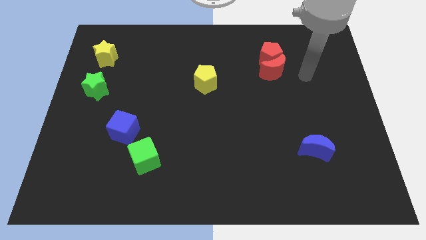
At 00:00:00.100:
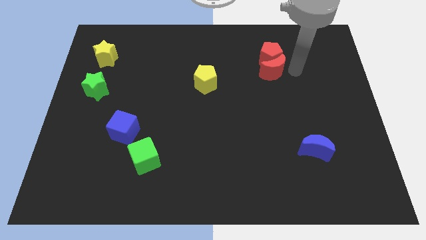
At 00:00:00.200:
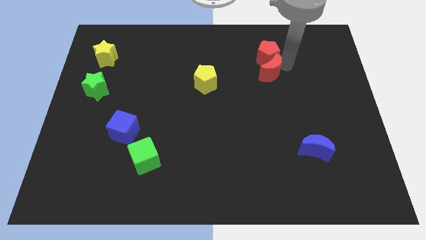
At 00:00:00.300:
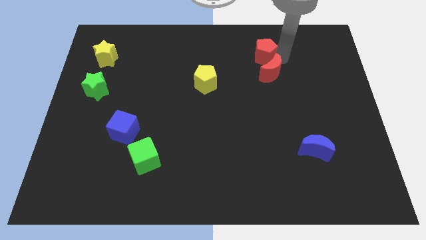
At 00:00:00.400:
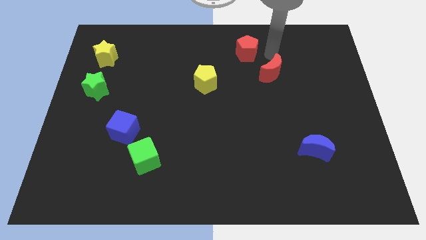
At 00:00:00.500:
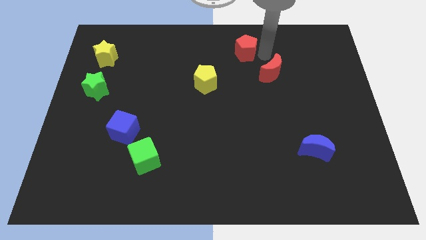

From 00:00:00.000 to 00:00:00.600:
move the red moon away from the red pentagon

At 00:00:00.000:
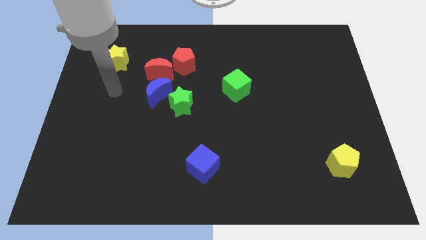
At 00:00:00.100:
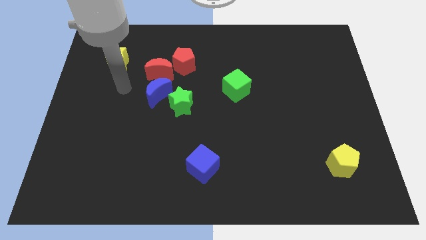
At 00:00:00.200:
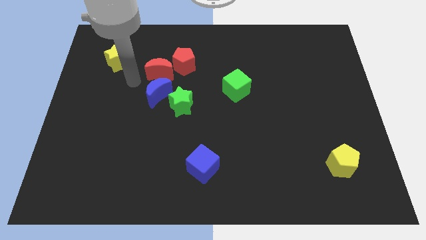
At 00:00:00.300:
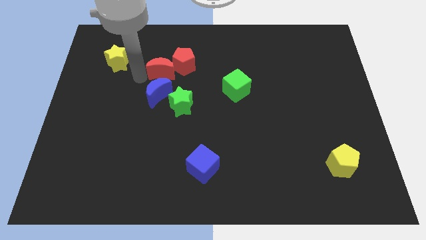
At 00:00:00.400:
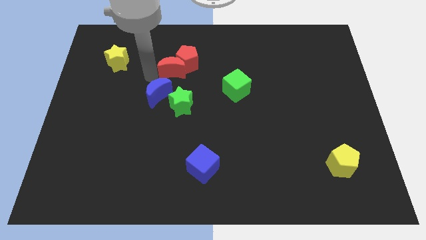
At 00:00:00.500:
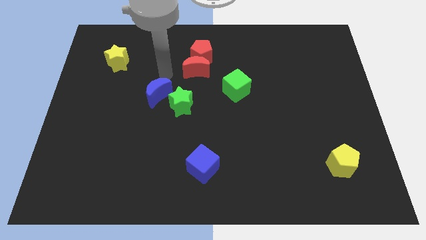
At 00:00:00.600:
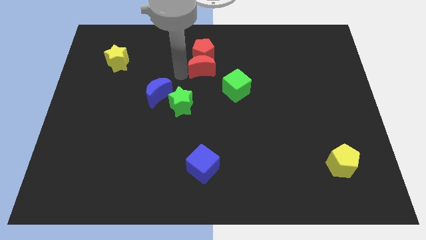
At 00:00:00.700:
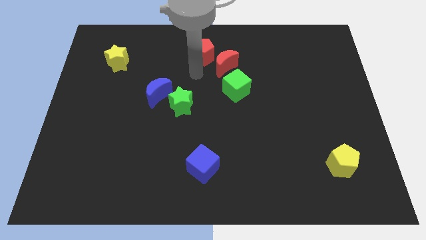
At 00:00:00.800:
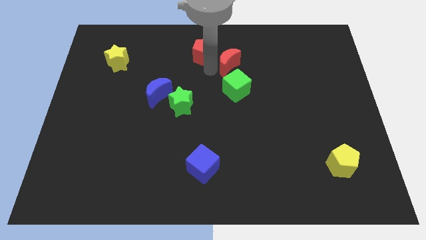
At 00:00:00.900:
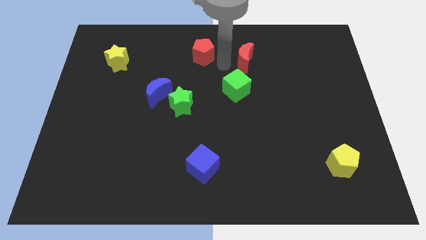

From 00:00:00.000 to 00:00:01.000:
separate the red pentagon from the red moon

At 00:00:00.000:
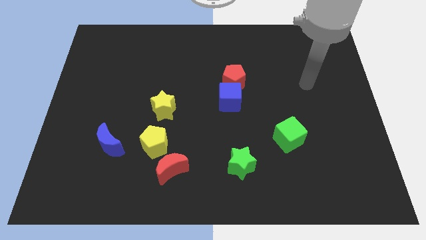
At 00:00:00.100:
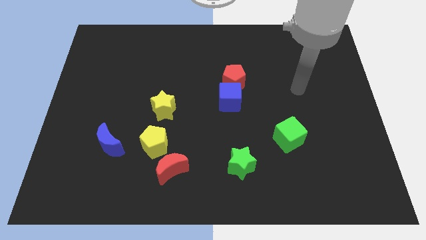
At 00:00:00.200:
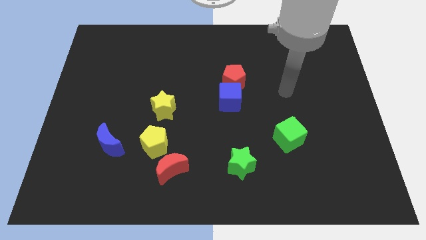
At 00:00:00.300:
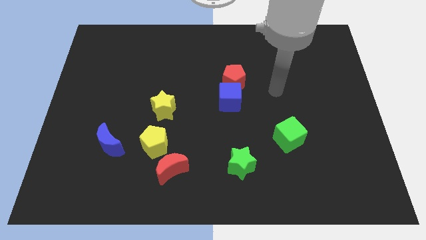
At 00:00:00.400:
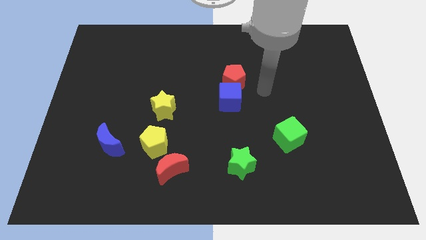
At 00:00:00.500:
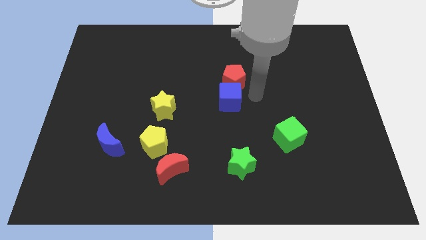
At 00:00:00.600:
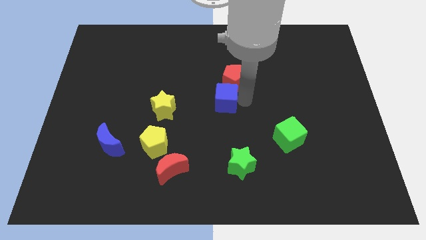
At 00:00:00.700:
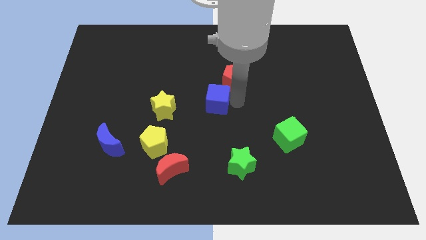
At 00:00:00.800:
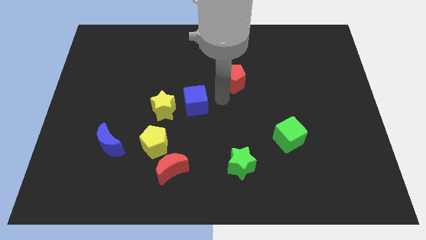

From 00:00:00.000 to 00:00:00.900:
pull the red pentagon apart from the blue cube

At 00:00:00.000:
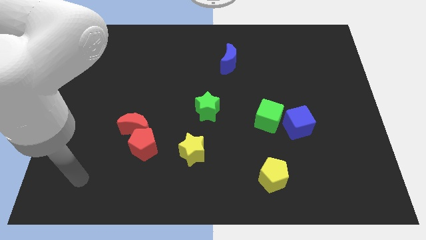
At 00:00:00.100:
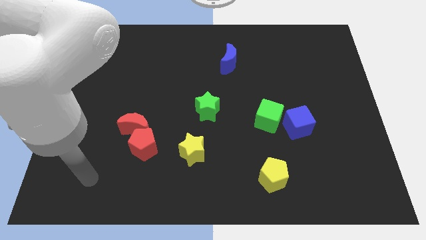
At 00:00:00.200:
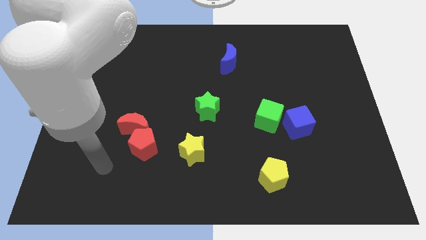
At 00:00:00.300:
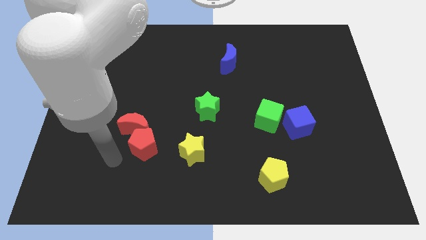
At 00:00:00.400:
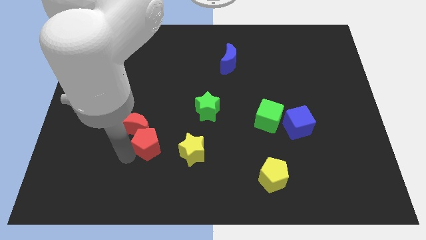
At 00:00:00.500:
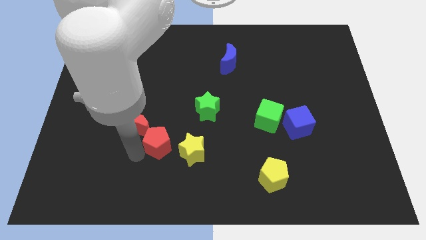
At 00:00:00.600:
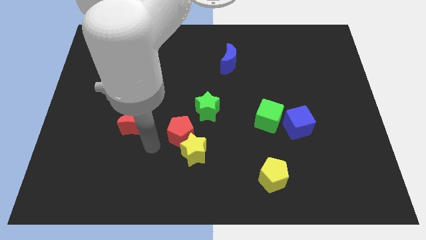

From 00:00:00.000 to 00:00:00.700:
separate the red moon from the red pentagon

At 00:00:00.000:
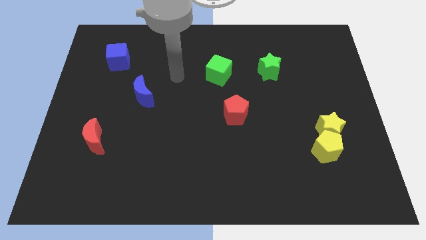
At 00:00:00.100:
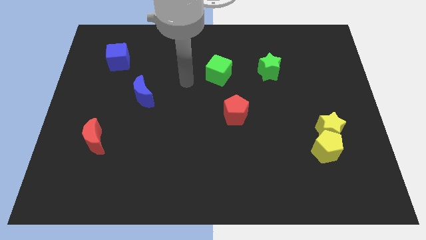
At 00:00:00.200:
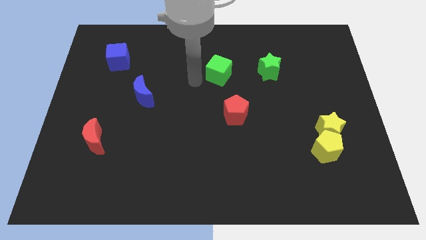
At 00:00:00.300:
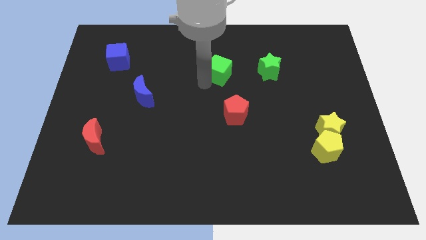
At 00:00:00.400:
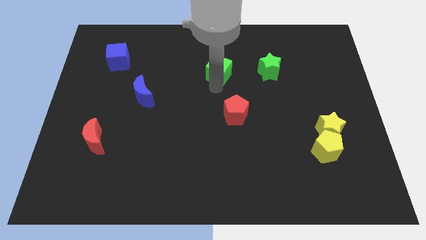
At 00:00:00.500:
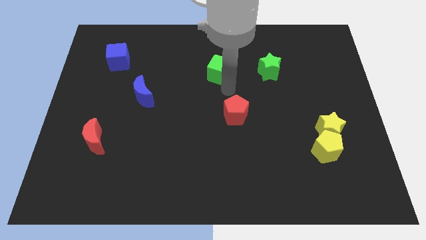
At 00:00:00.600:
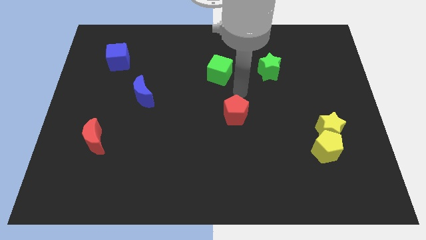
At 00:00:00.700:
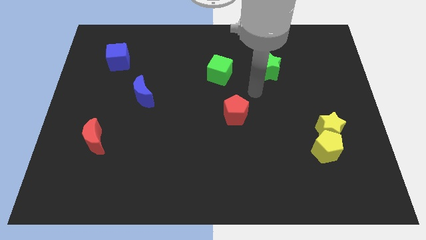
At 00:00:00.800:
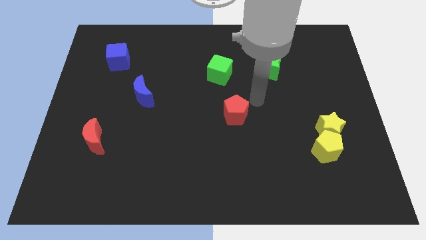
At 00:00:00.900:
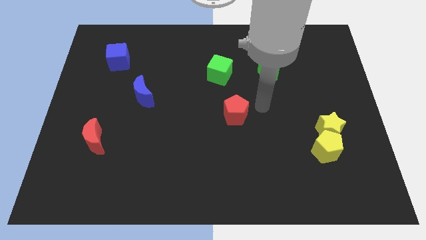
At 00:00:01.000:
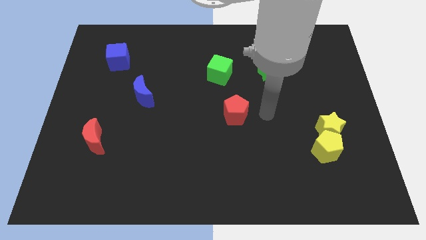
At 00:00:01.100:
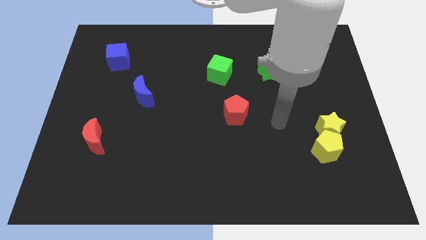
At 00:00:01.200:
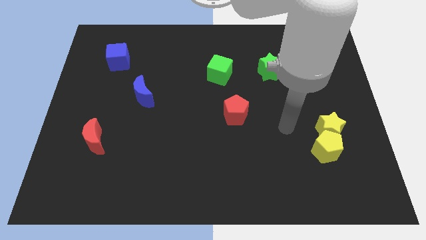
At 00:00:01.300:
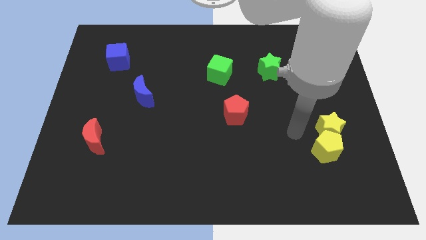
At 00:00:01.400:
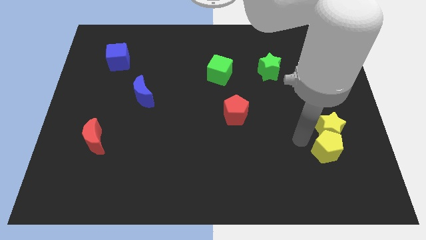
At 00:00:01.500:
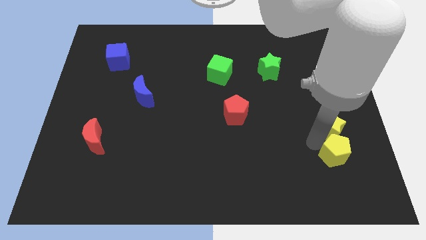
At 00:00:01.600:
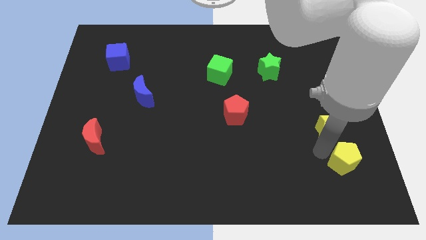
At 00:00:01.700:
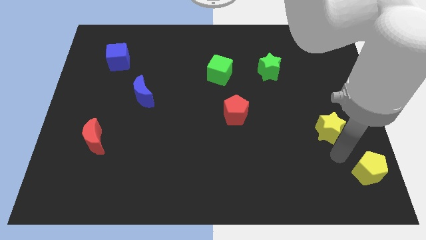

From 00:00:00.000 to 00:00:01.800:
separate the yellow star from the yellow pentagon

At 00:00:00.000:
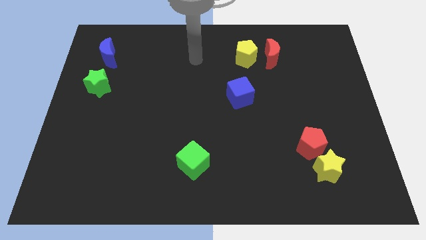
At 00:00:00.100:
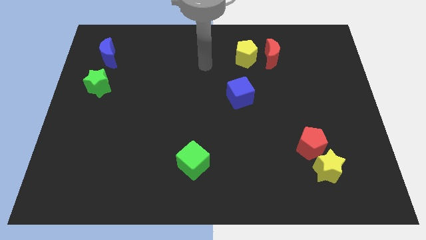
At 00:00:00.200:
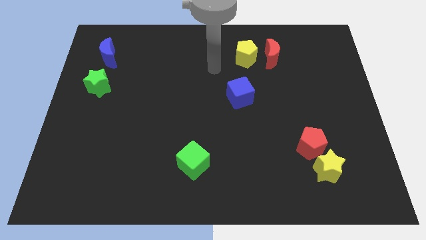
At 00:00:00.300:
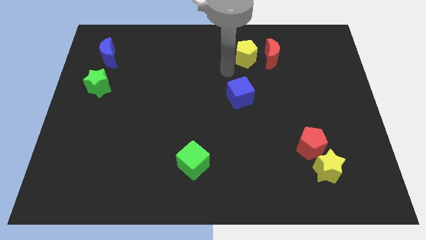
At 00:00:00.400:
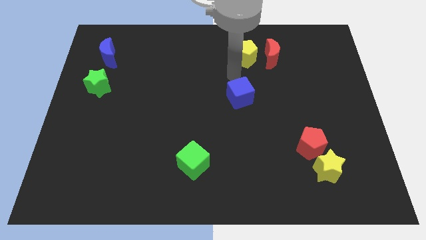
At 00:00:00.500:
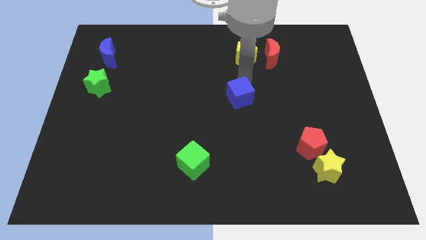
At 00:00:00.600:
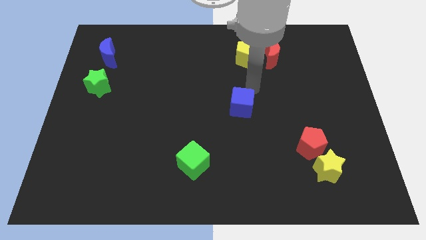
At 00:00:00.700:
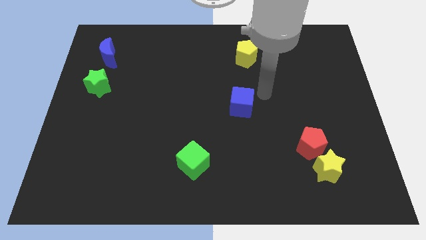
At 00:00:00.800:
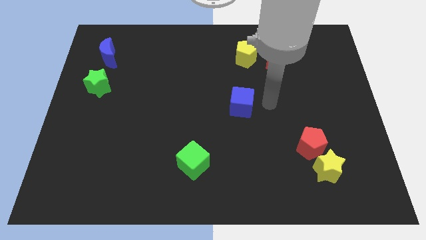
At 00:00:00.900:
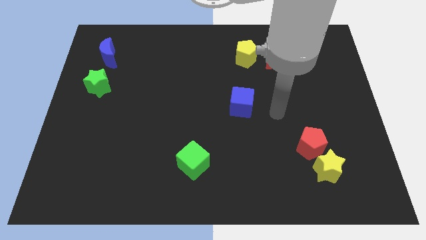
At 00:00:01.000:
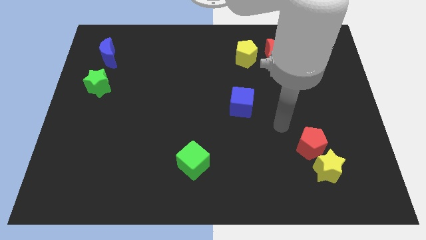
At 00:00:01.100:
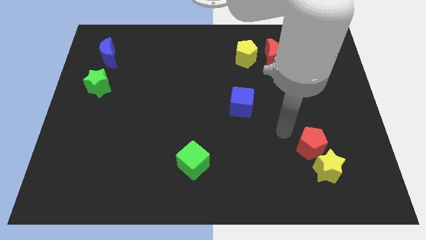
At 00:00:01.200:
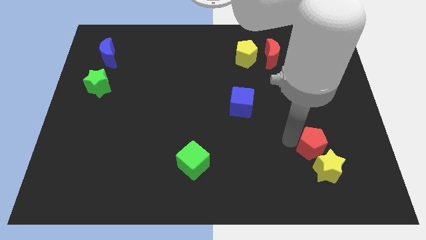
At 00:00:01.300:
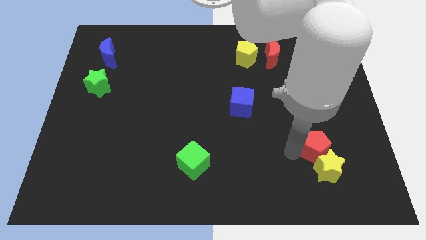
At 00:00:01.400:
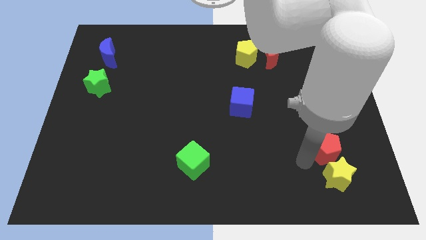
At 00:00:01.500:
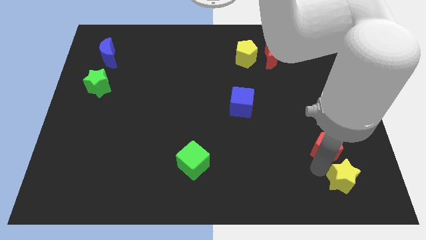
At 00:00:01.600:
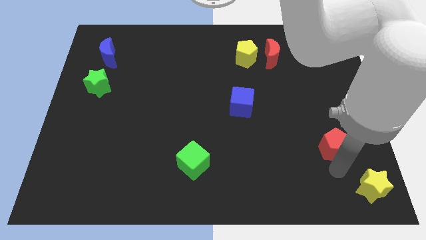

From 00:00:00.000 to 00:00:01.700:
move the red pentagon away from the yellow star

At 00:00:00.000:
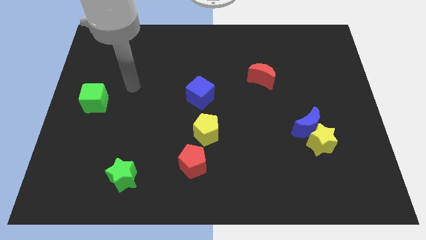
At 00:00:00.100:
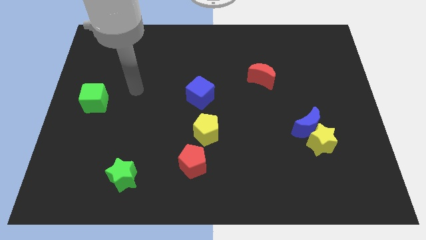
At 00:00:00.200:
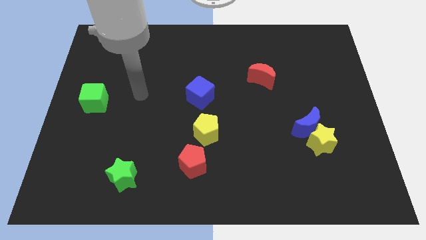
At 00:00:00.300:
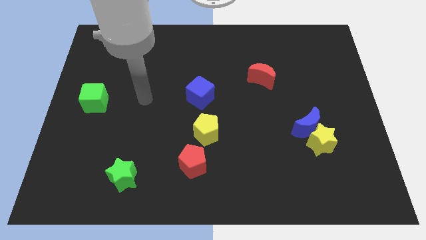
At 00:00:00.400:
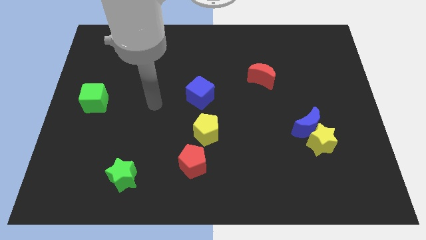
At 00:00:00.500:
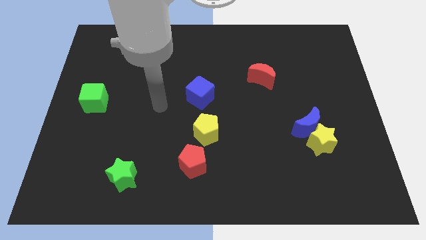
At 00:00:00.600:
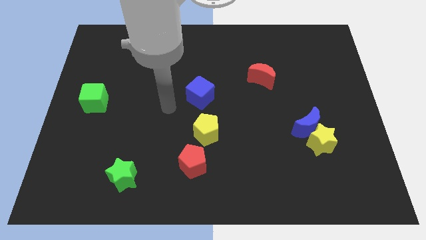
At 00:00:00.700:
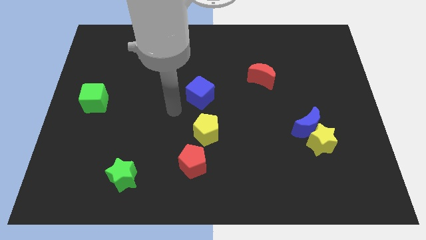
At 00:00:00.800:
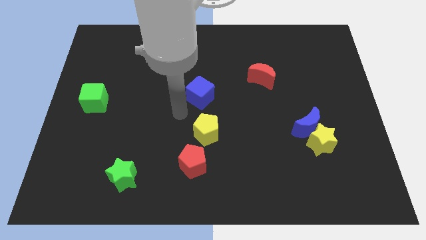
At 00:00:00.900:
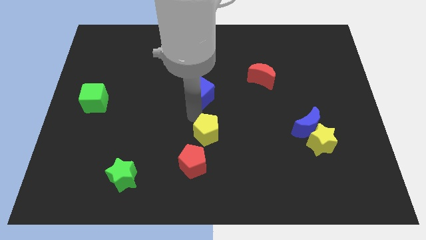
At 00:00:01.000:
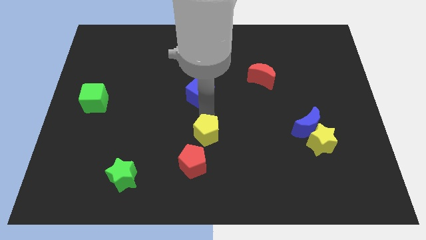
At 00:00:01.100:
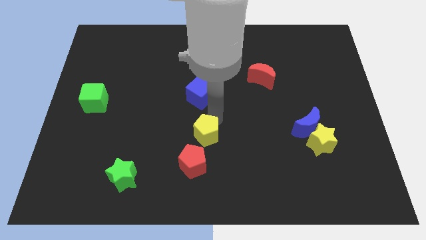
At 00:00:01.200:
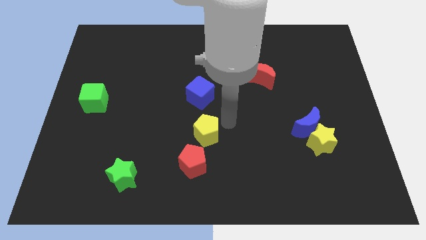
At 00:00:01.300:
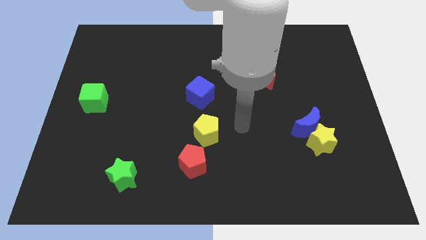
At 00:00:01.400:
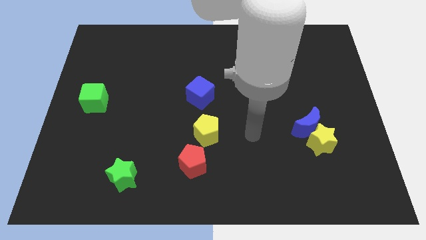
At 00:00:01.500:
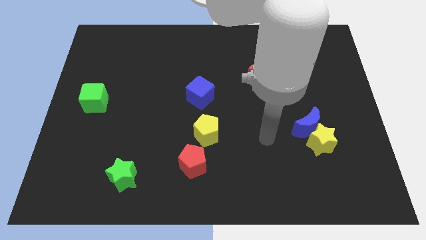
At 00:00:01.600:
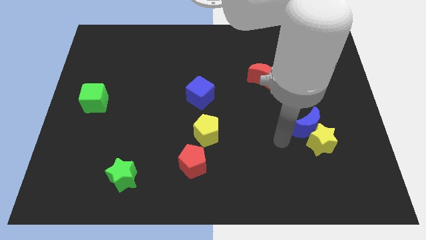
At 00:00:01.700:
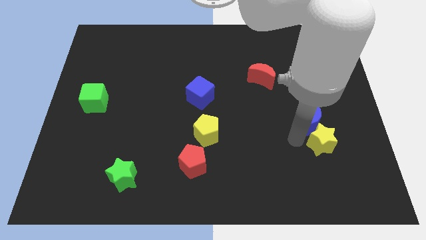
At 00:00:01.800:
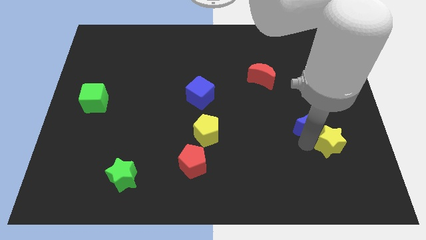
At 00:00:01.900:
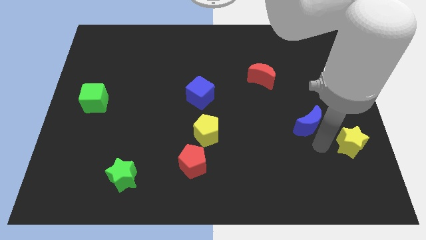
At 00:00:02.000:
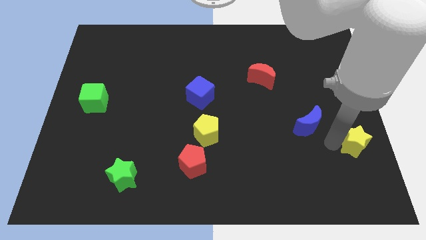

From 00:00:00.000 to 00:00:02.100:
pull the blue moon apart from the yellow star

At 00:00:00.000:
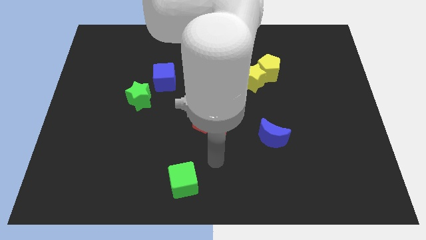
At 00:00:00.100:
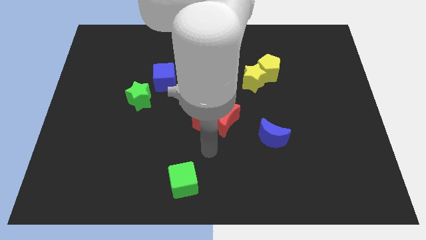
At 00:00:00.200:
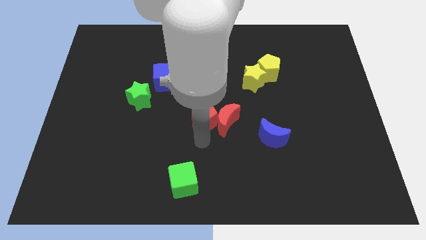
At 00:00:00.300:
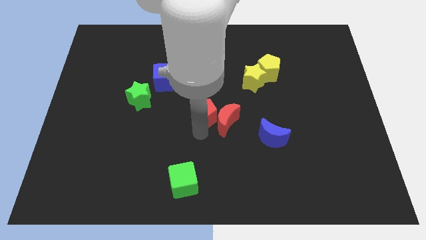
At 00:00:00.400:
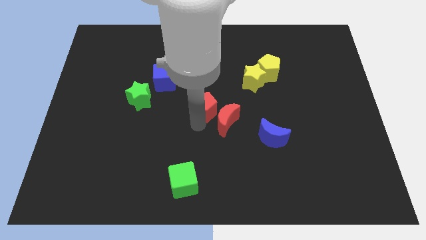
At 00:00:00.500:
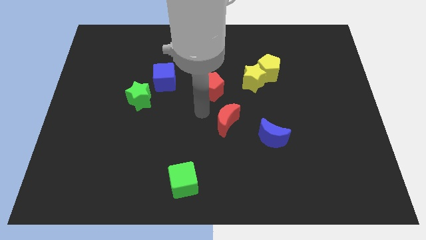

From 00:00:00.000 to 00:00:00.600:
pull the red moon apart from the red pentagon
